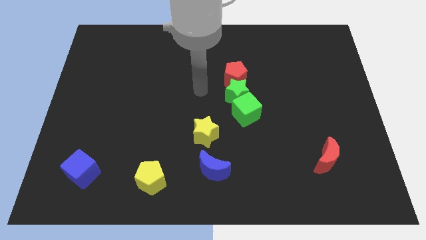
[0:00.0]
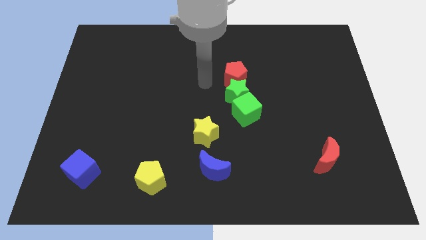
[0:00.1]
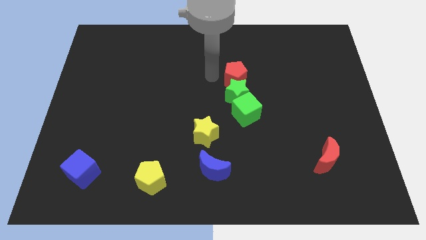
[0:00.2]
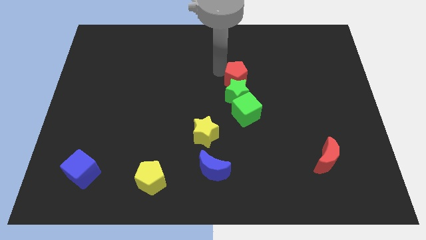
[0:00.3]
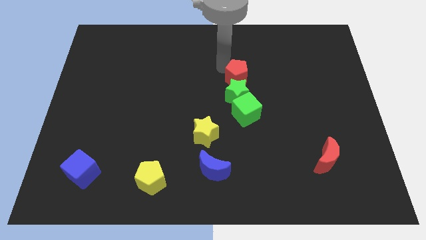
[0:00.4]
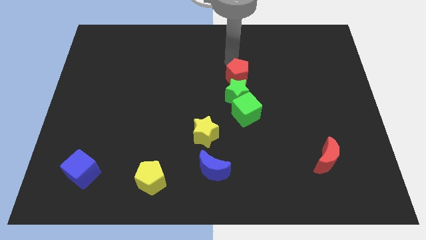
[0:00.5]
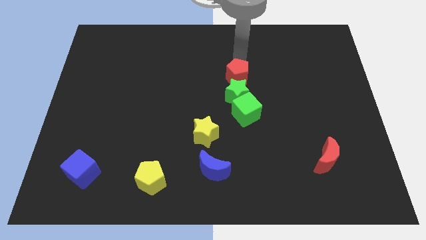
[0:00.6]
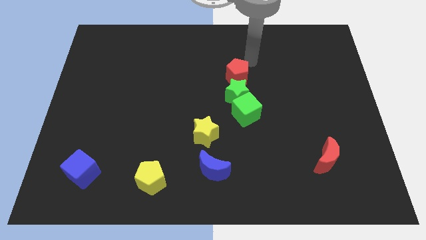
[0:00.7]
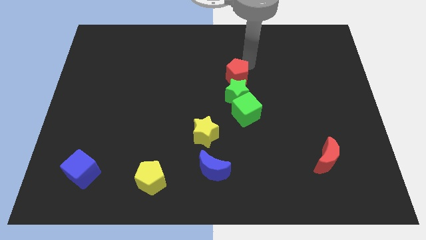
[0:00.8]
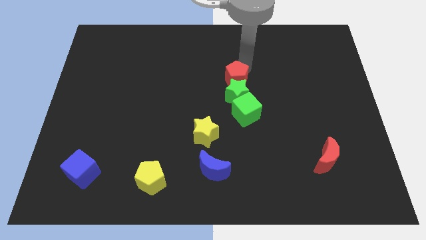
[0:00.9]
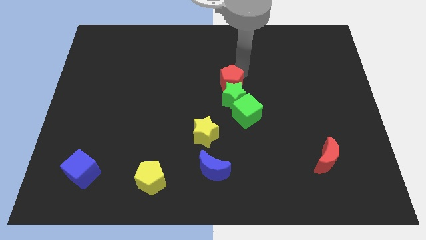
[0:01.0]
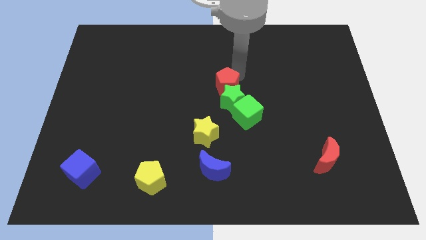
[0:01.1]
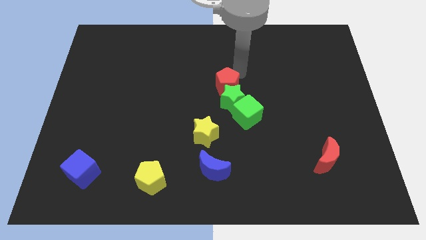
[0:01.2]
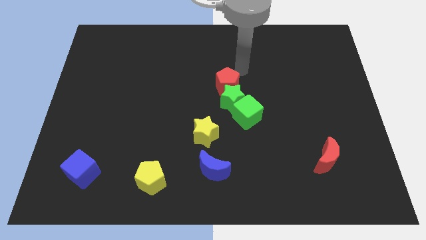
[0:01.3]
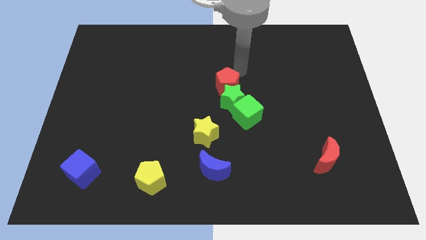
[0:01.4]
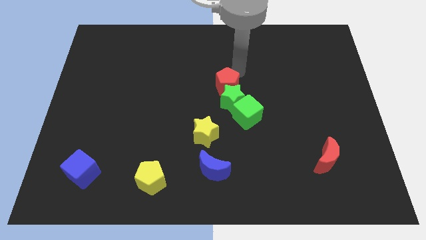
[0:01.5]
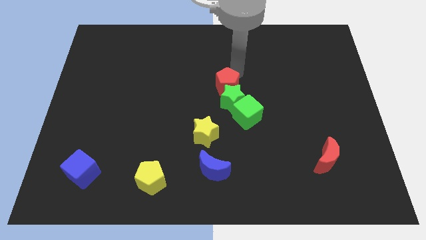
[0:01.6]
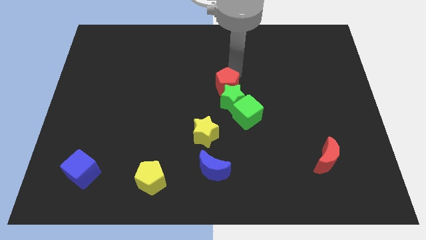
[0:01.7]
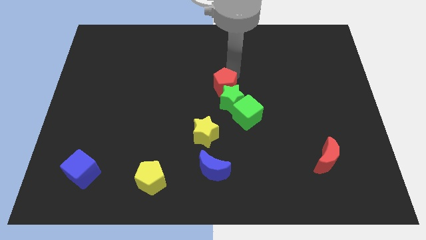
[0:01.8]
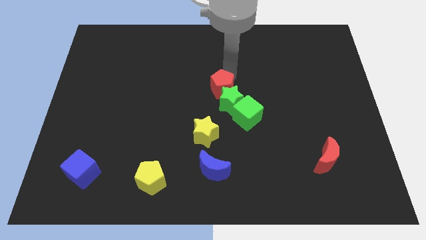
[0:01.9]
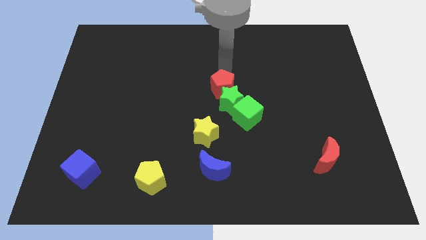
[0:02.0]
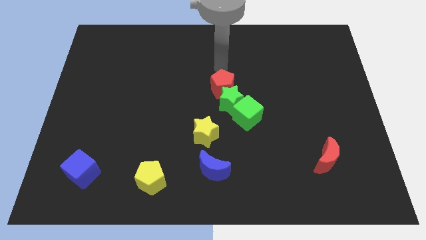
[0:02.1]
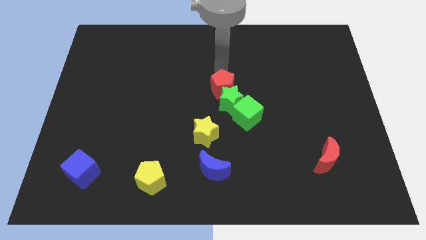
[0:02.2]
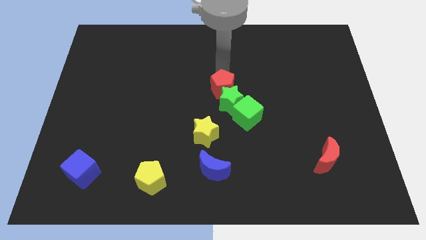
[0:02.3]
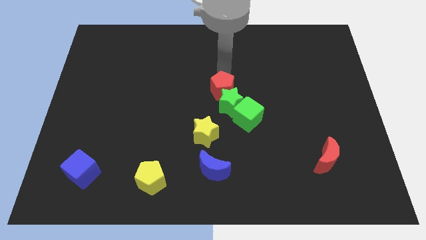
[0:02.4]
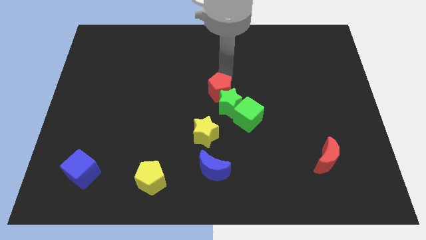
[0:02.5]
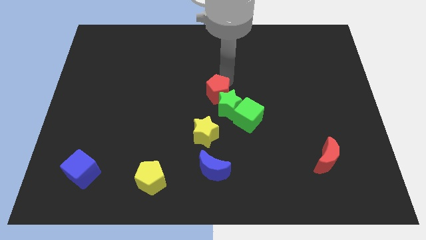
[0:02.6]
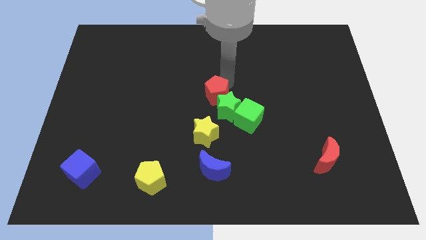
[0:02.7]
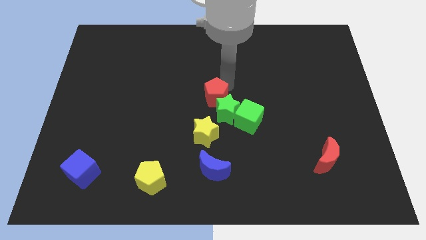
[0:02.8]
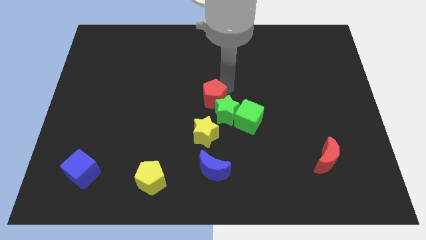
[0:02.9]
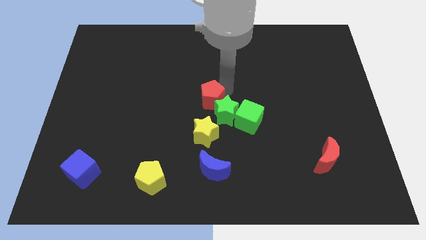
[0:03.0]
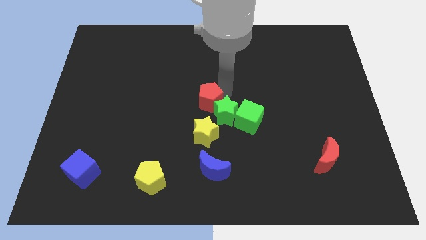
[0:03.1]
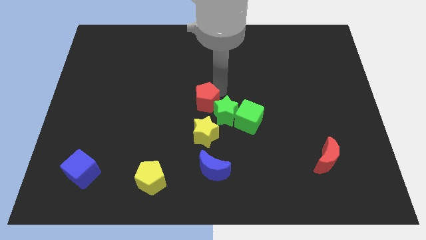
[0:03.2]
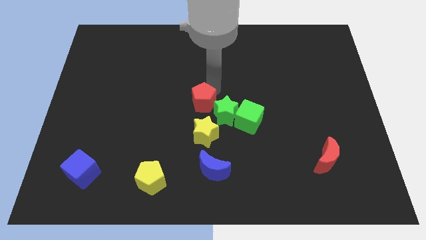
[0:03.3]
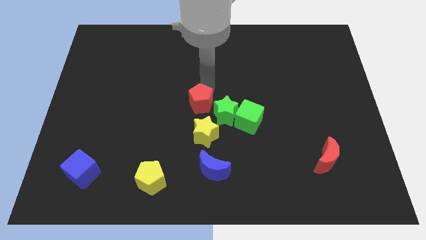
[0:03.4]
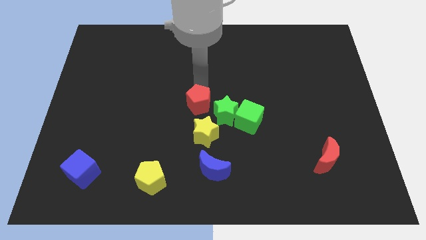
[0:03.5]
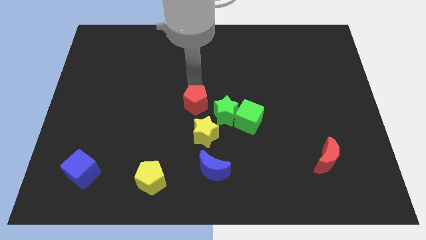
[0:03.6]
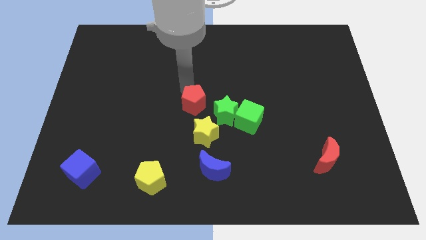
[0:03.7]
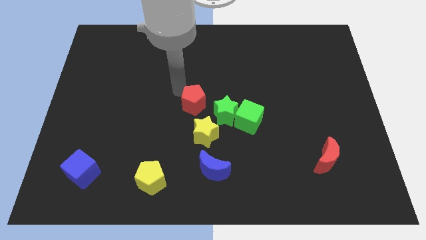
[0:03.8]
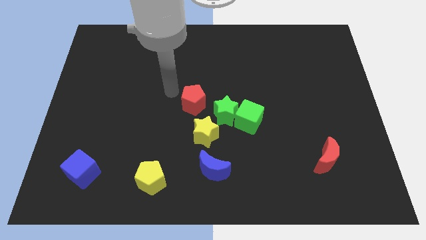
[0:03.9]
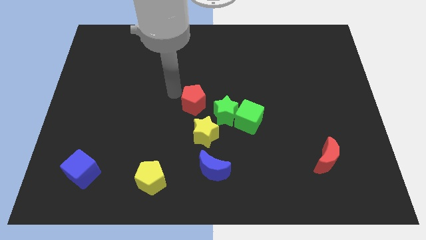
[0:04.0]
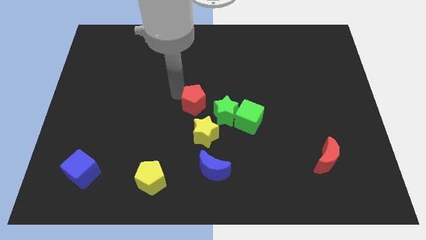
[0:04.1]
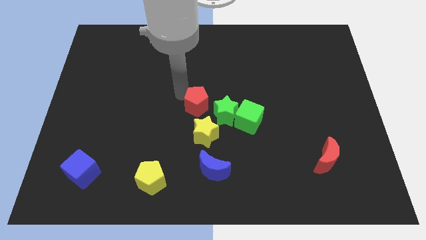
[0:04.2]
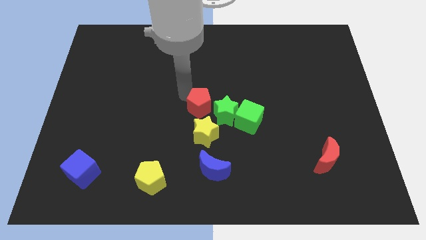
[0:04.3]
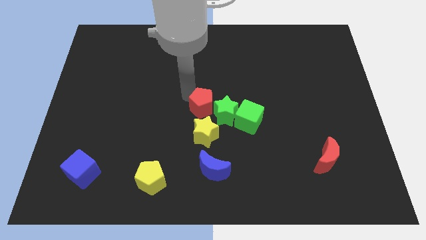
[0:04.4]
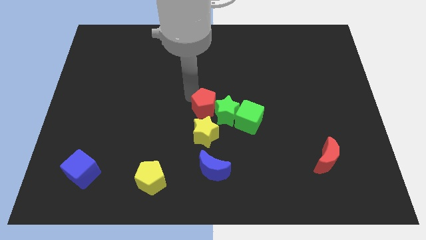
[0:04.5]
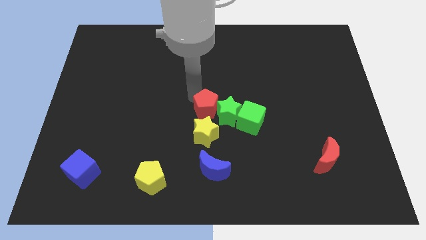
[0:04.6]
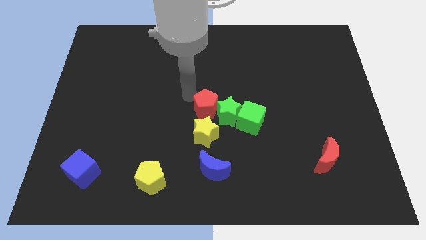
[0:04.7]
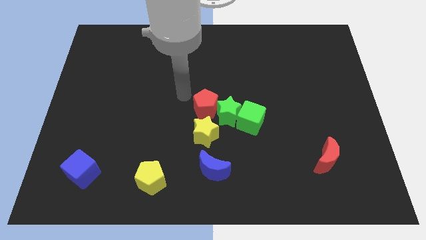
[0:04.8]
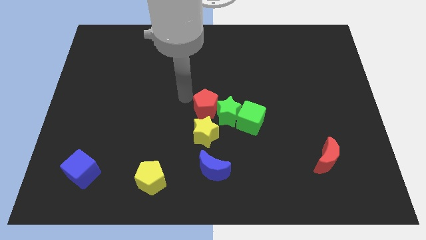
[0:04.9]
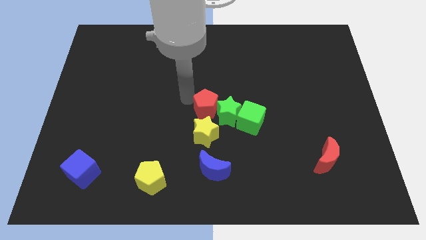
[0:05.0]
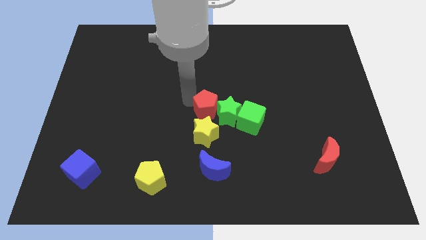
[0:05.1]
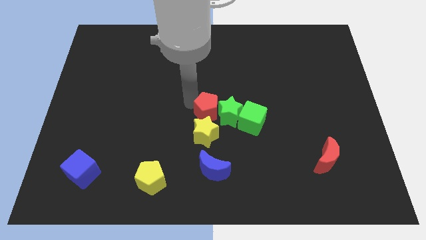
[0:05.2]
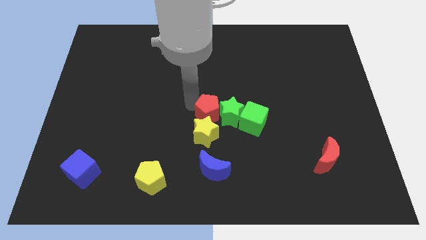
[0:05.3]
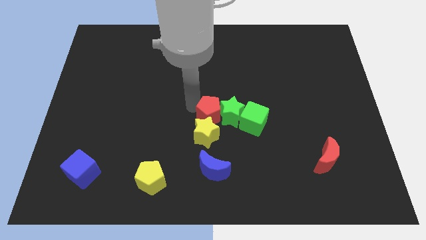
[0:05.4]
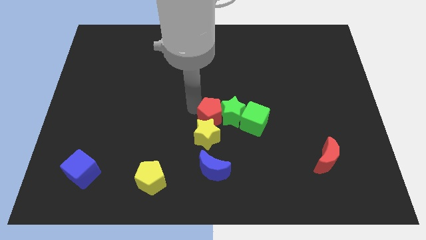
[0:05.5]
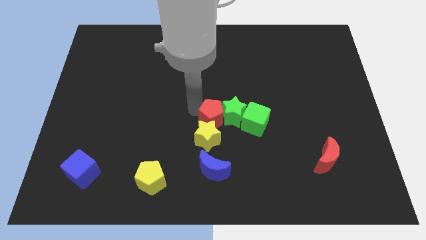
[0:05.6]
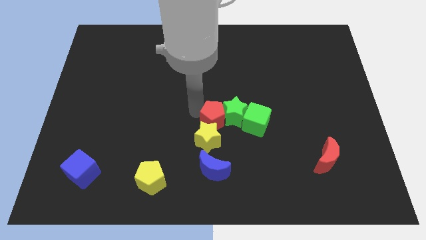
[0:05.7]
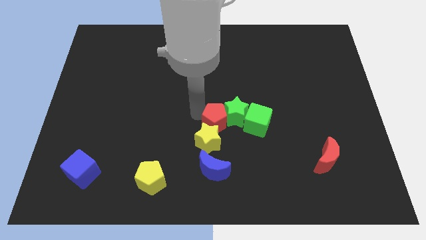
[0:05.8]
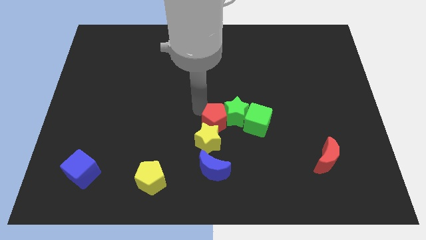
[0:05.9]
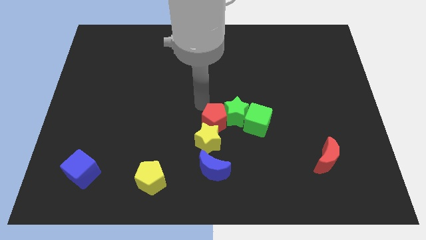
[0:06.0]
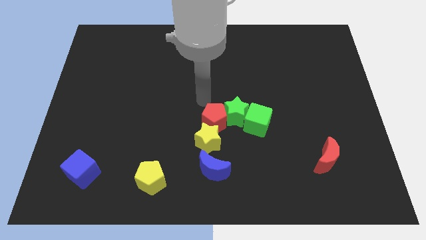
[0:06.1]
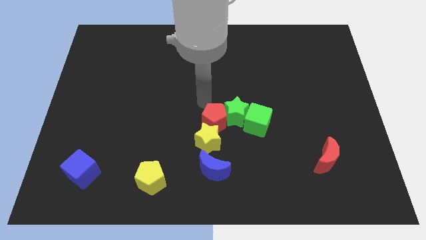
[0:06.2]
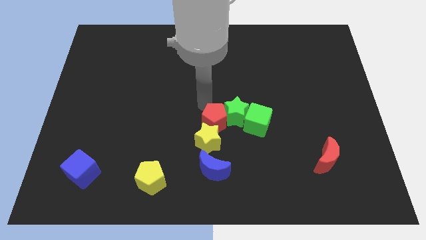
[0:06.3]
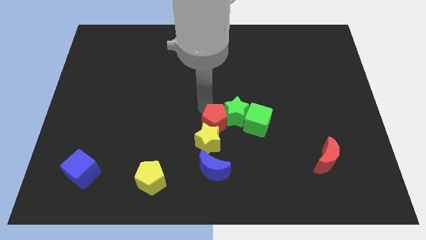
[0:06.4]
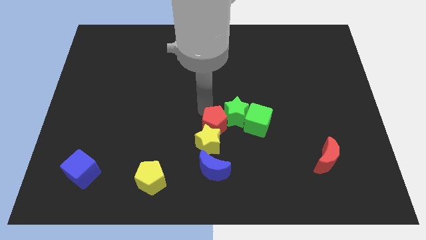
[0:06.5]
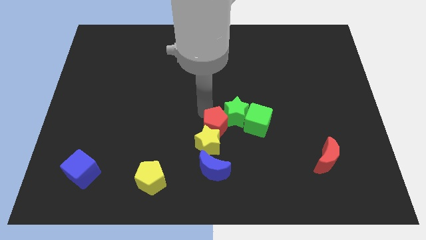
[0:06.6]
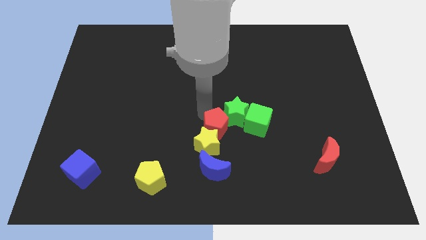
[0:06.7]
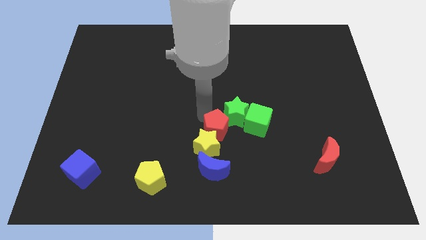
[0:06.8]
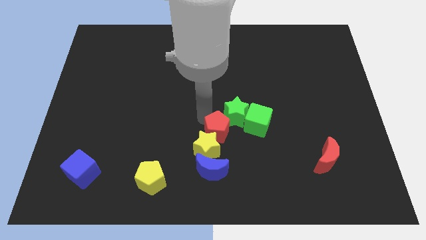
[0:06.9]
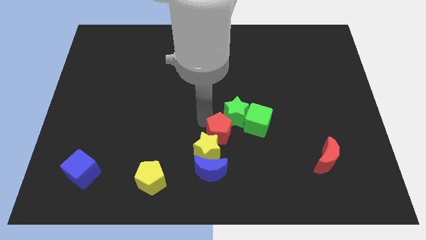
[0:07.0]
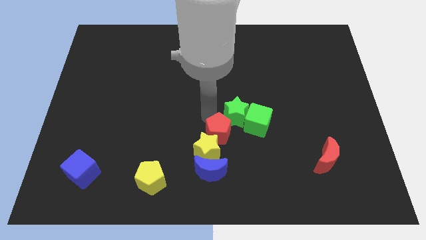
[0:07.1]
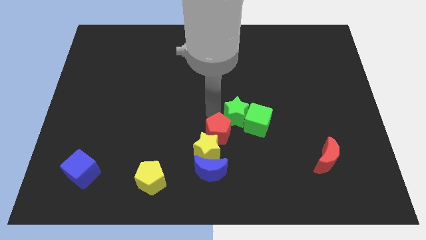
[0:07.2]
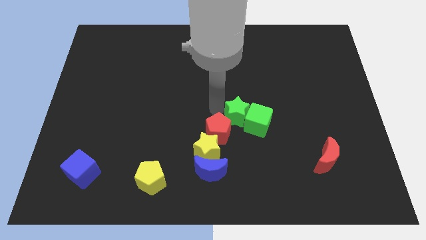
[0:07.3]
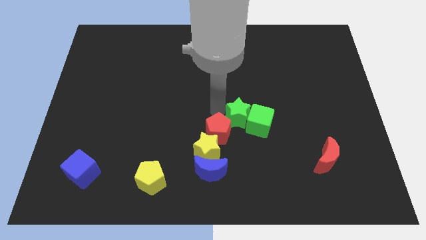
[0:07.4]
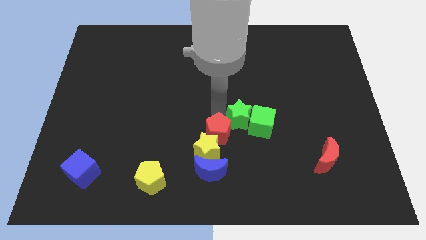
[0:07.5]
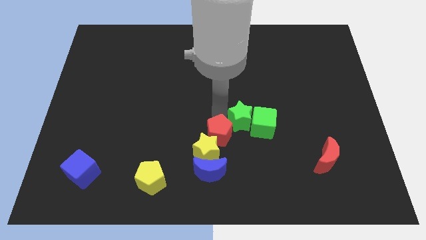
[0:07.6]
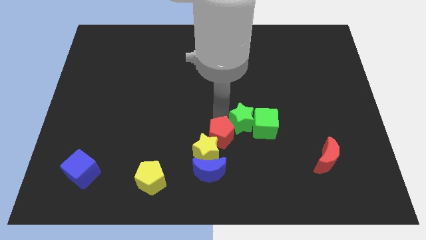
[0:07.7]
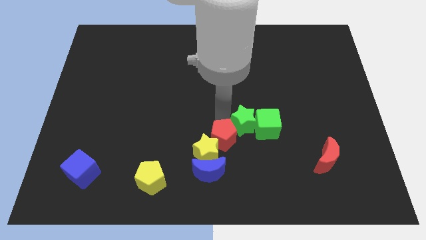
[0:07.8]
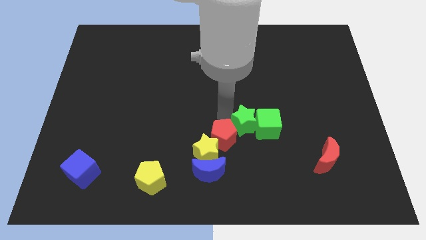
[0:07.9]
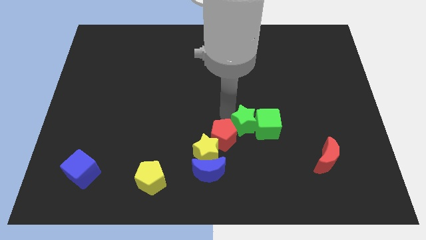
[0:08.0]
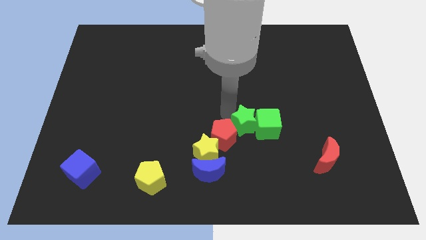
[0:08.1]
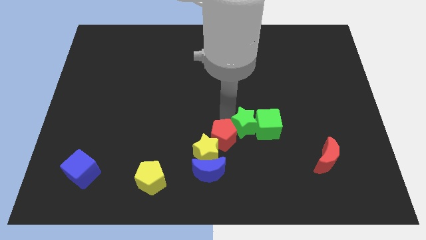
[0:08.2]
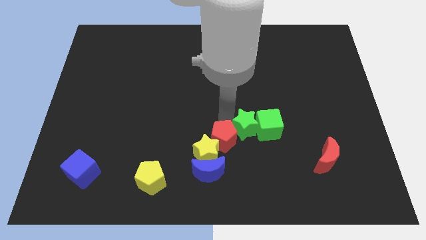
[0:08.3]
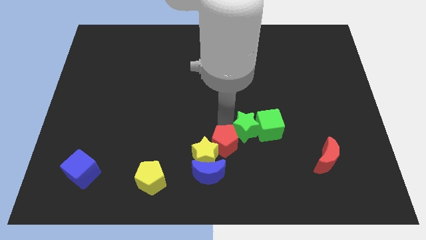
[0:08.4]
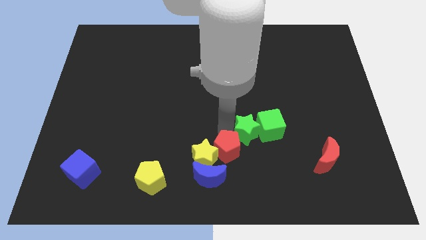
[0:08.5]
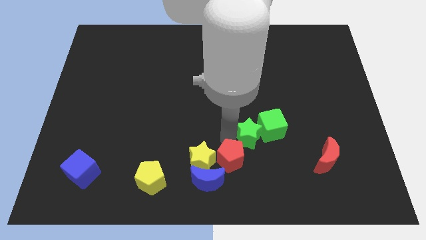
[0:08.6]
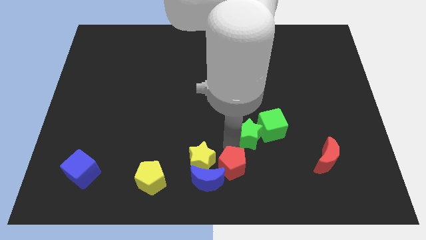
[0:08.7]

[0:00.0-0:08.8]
move the red pentagon towards the blue moon
